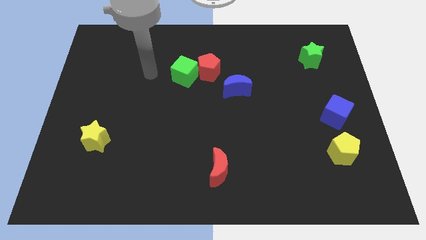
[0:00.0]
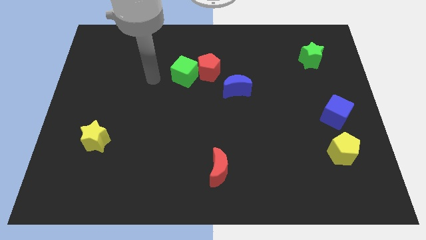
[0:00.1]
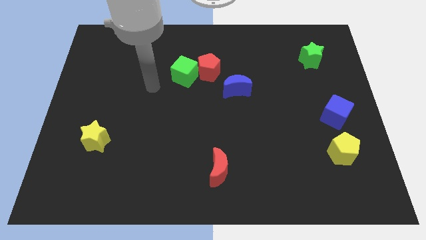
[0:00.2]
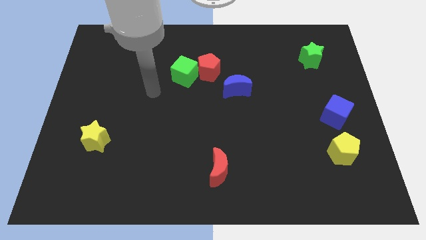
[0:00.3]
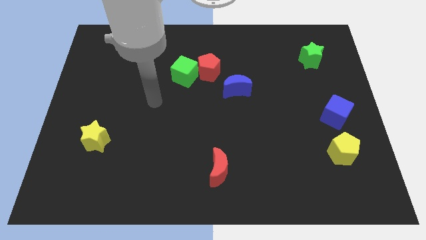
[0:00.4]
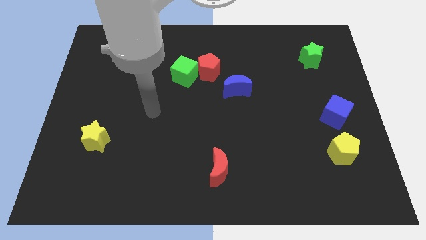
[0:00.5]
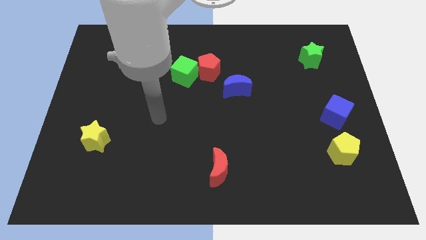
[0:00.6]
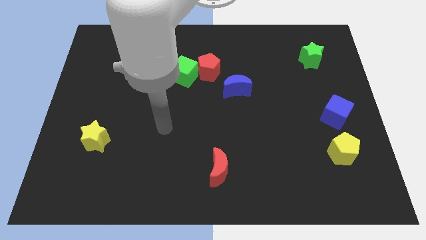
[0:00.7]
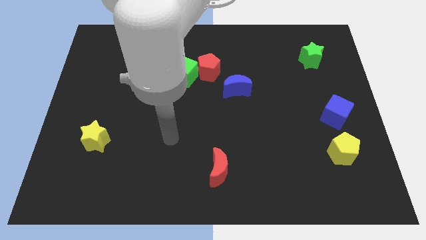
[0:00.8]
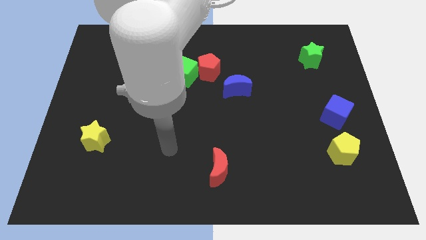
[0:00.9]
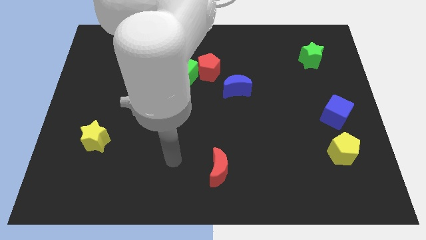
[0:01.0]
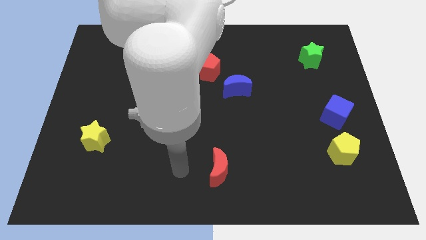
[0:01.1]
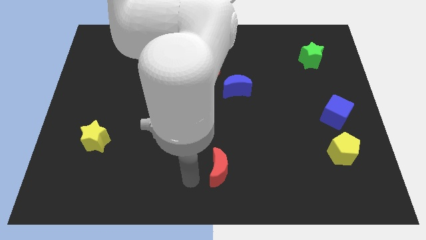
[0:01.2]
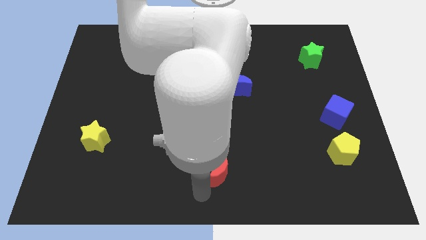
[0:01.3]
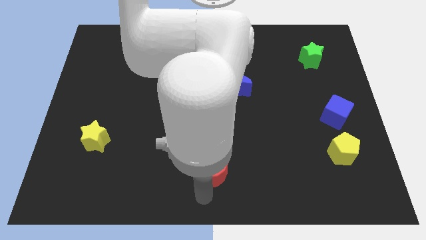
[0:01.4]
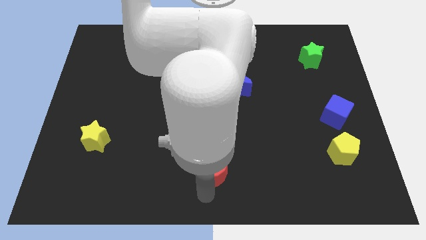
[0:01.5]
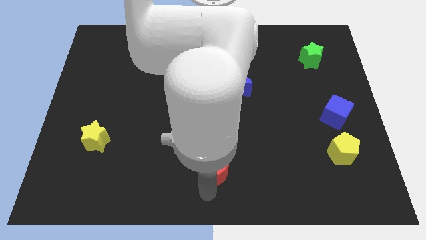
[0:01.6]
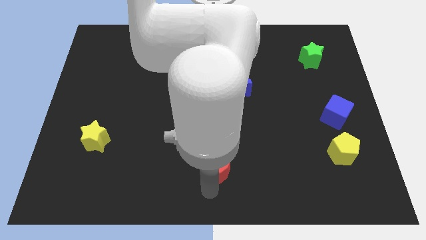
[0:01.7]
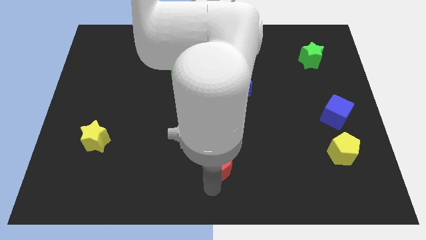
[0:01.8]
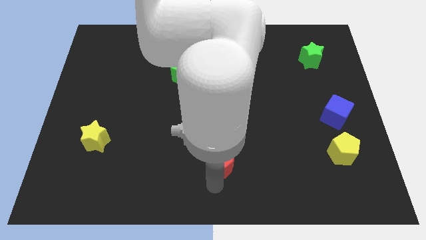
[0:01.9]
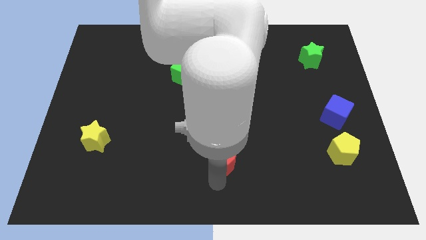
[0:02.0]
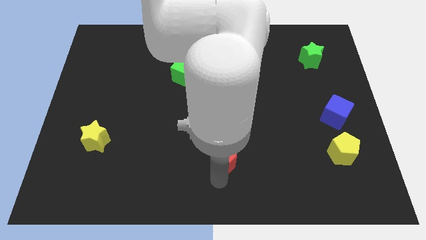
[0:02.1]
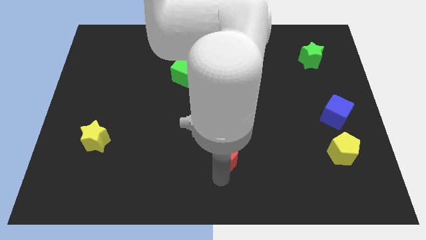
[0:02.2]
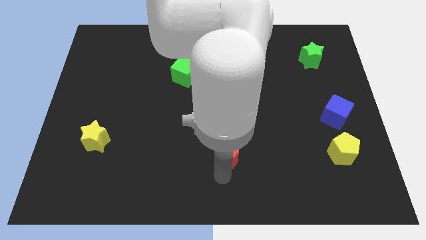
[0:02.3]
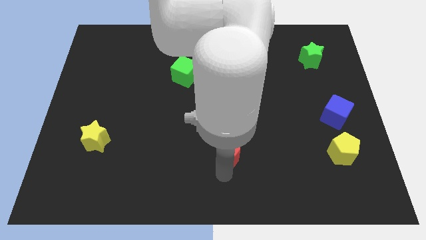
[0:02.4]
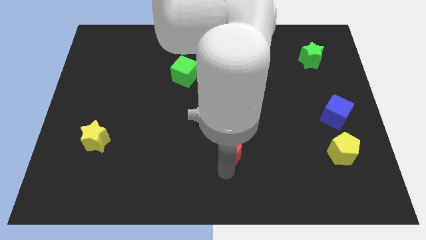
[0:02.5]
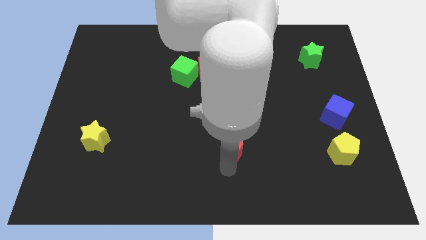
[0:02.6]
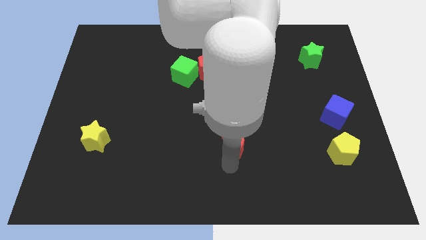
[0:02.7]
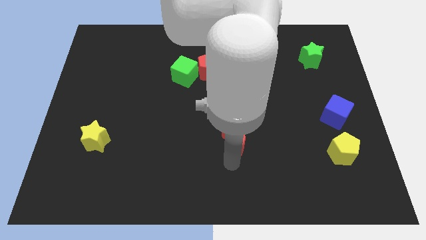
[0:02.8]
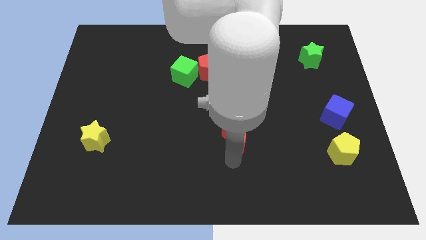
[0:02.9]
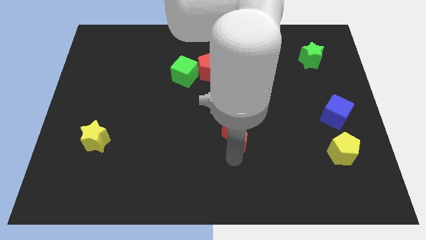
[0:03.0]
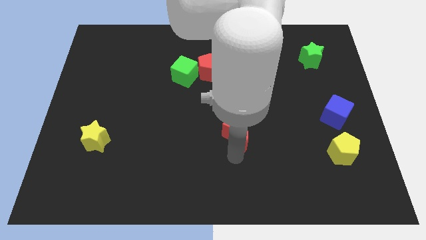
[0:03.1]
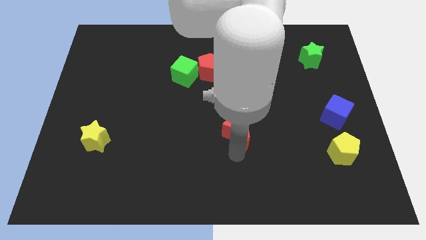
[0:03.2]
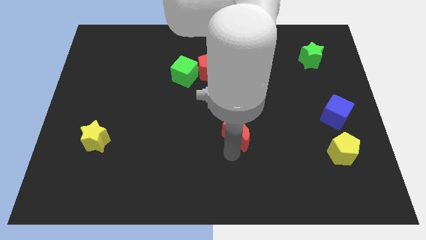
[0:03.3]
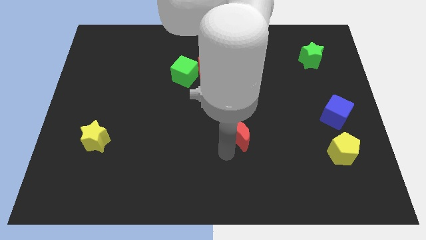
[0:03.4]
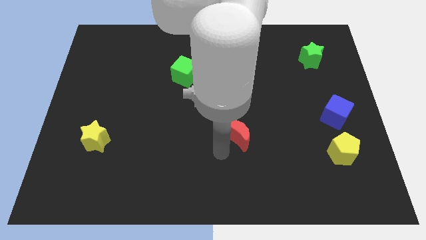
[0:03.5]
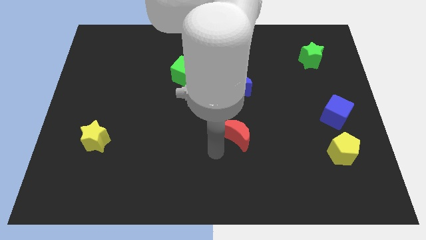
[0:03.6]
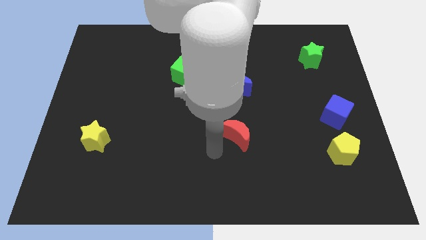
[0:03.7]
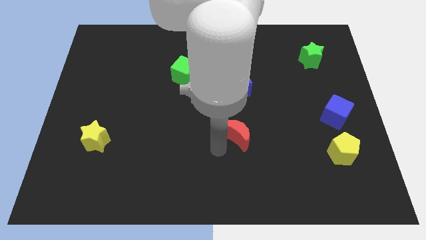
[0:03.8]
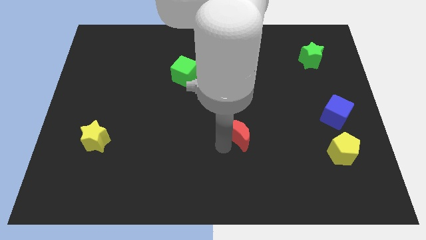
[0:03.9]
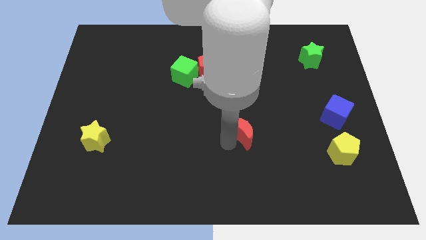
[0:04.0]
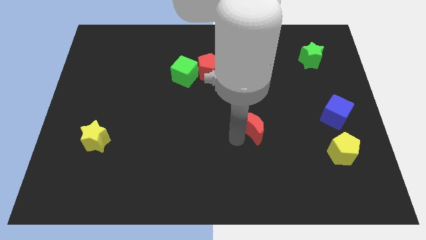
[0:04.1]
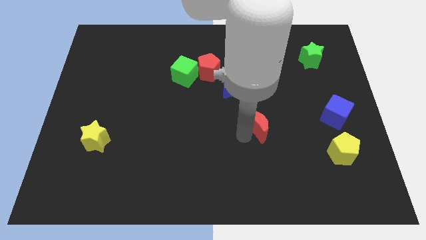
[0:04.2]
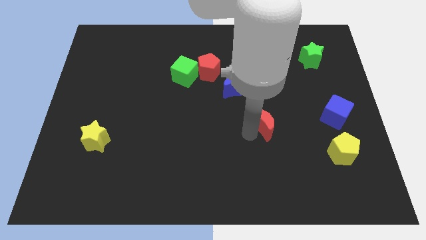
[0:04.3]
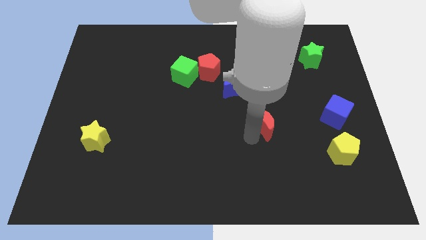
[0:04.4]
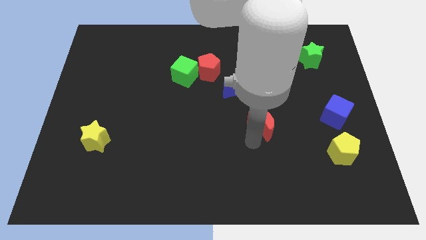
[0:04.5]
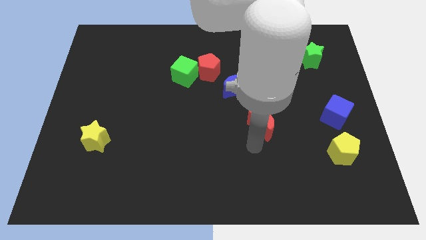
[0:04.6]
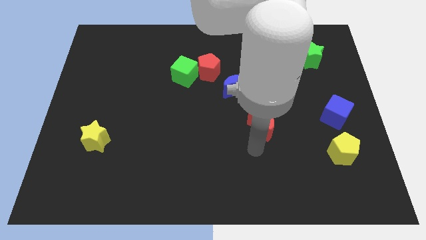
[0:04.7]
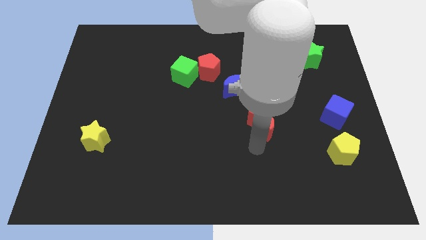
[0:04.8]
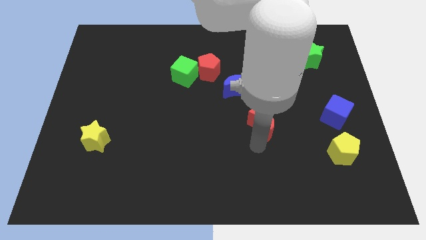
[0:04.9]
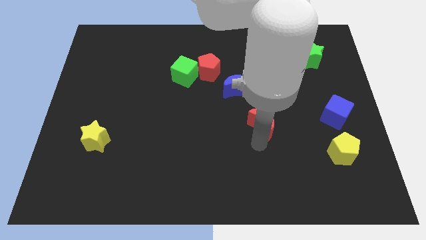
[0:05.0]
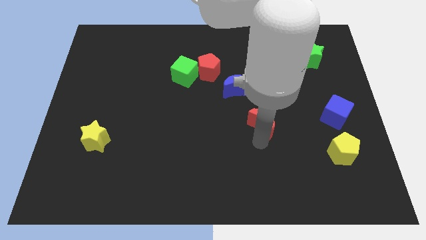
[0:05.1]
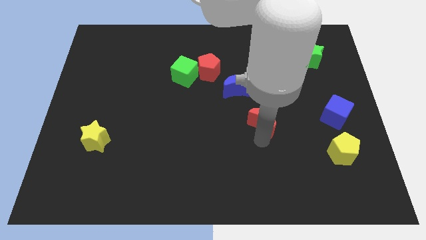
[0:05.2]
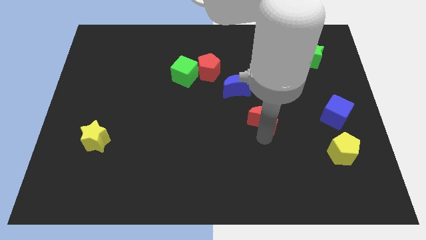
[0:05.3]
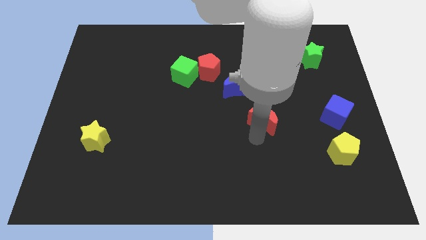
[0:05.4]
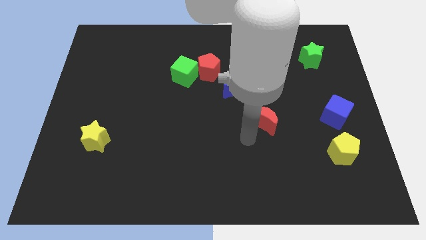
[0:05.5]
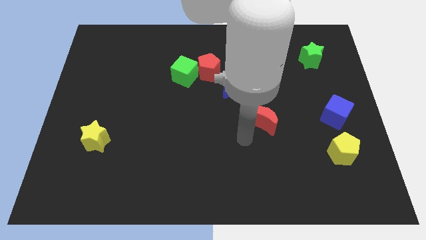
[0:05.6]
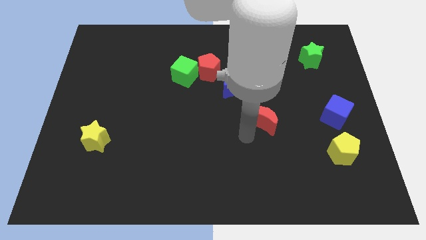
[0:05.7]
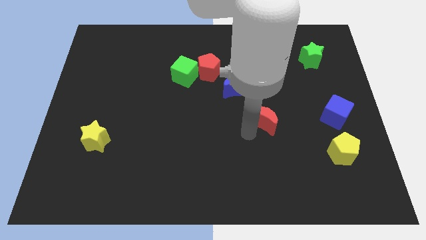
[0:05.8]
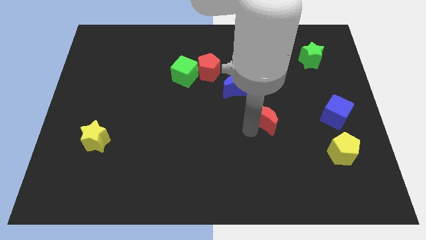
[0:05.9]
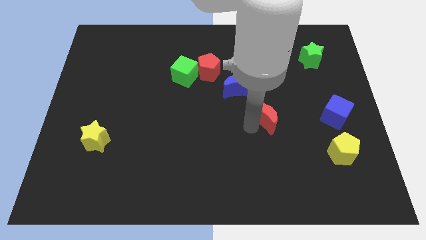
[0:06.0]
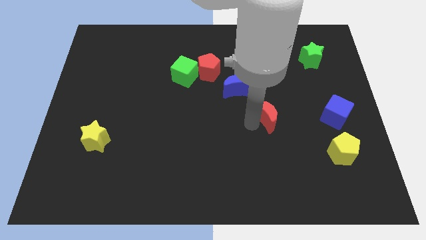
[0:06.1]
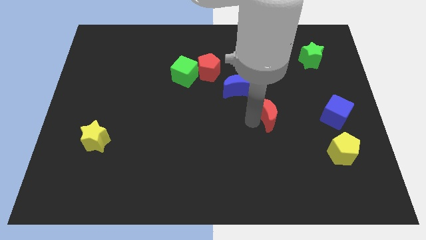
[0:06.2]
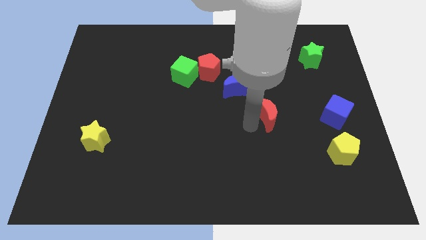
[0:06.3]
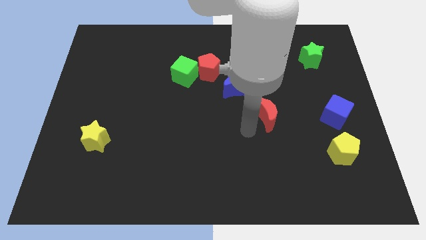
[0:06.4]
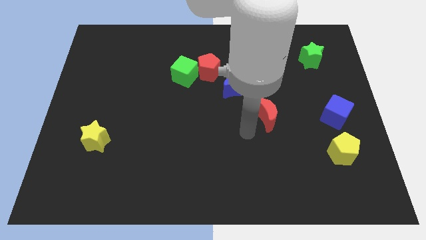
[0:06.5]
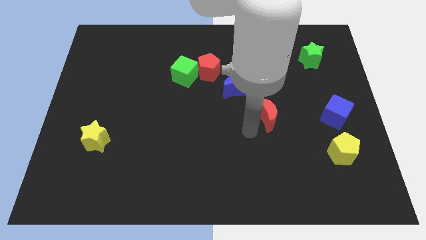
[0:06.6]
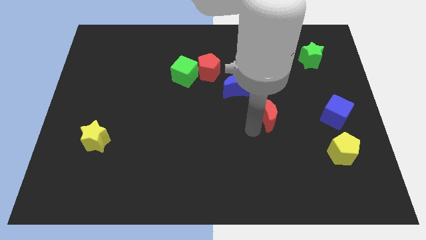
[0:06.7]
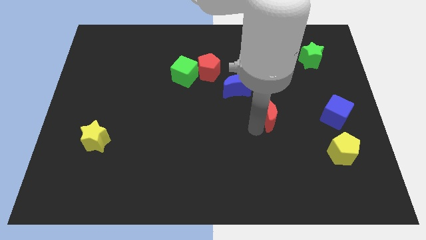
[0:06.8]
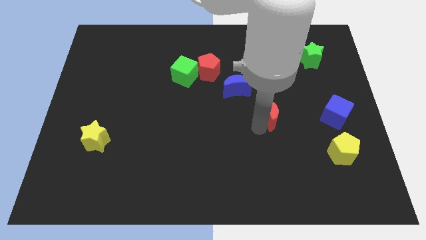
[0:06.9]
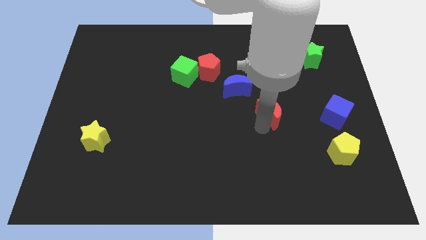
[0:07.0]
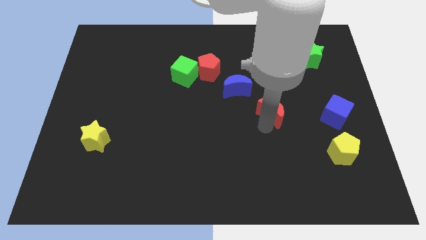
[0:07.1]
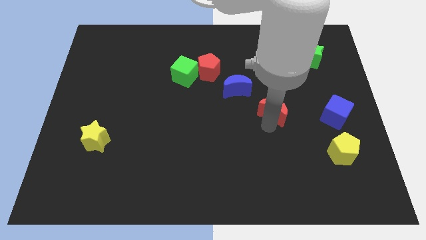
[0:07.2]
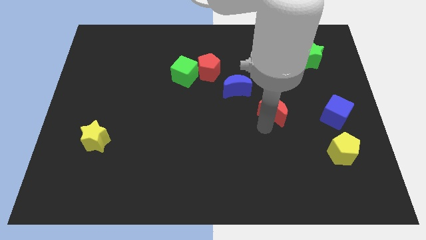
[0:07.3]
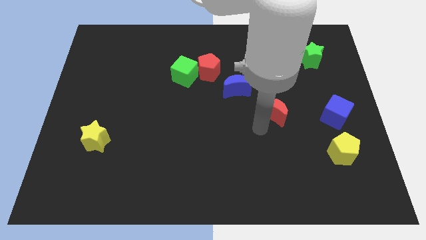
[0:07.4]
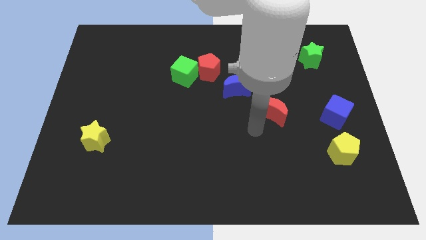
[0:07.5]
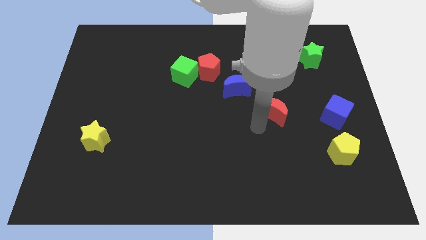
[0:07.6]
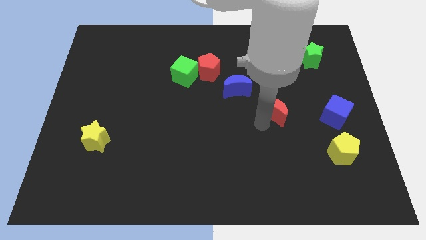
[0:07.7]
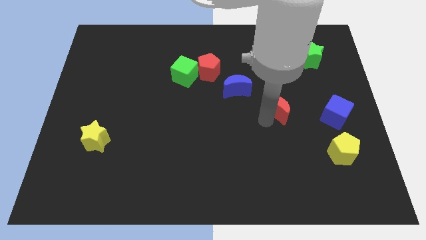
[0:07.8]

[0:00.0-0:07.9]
move the red moon diagonally up and to the right

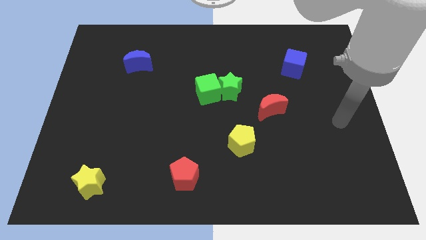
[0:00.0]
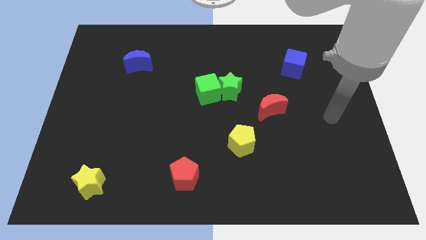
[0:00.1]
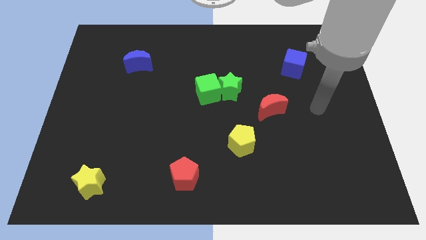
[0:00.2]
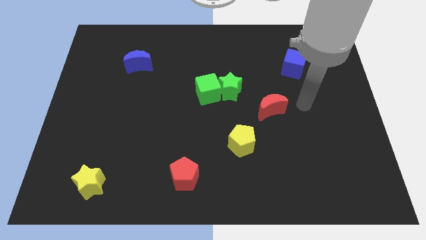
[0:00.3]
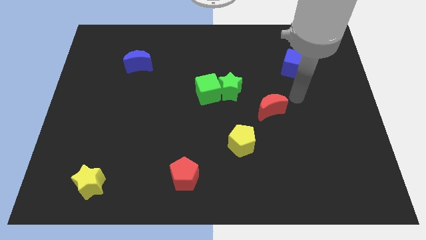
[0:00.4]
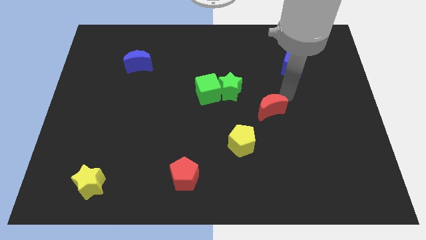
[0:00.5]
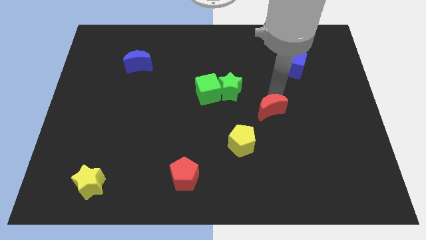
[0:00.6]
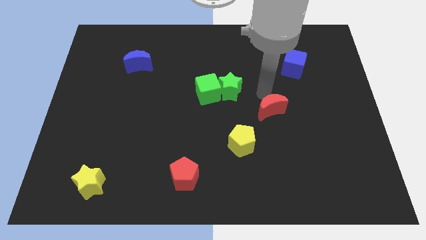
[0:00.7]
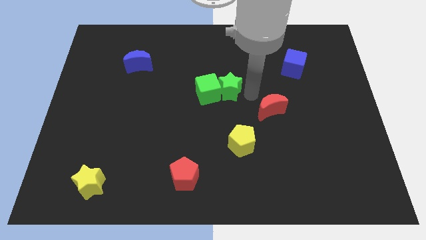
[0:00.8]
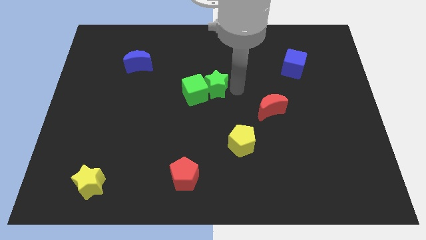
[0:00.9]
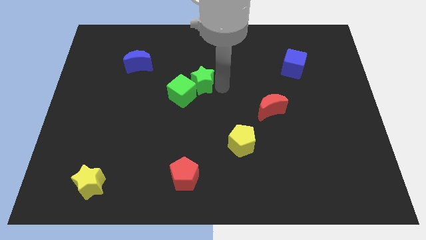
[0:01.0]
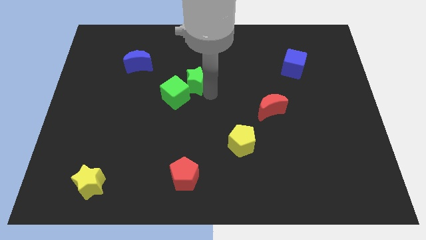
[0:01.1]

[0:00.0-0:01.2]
slide the green cube a little bit left
